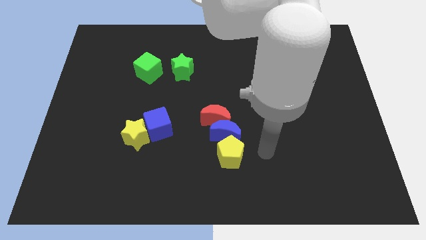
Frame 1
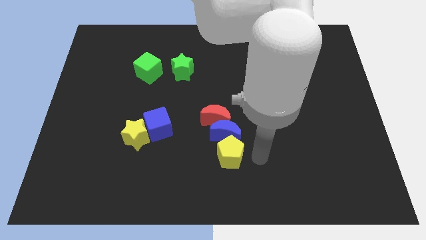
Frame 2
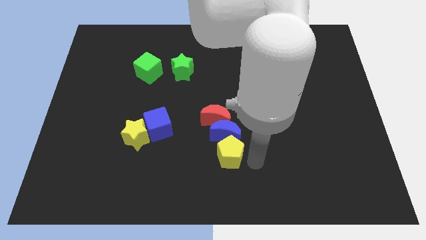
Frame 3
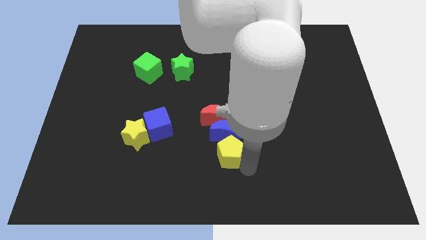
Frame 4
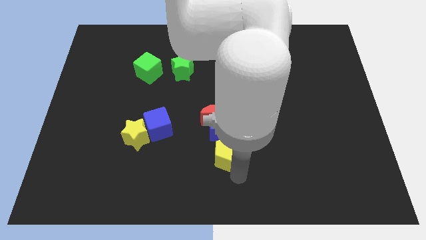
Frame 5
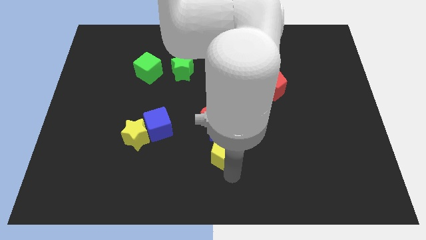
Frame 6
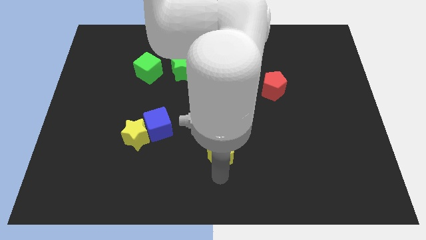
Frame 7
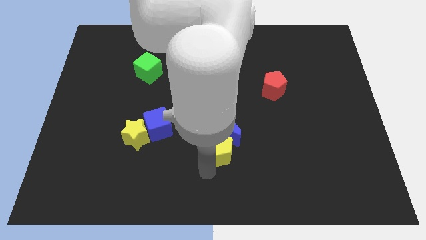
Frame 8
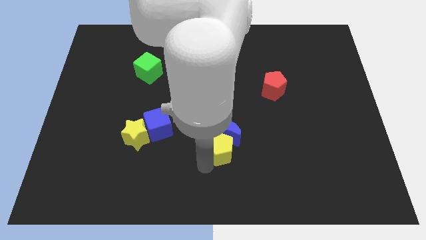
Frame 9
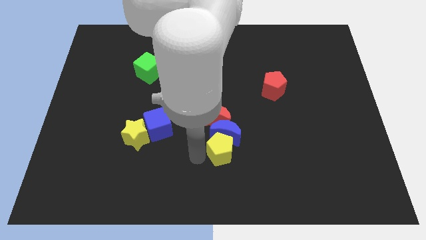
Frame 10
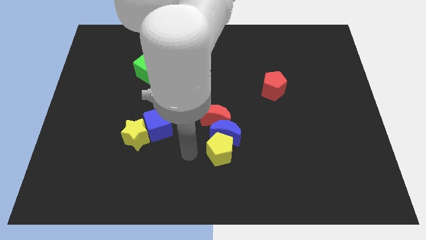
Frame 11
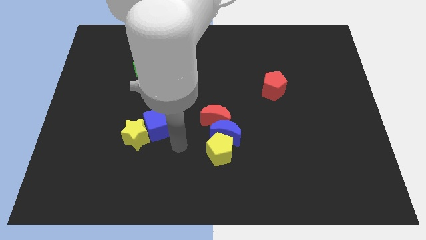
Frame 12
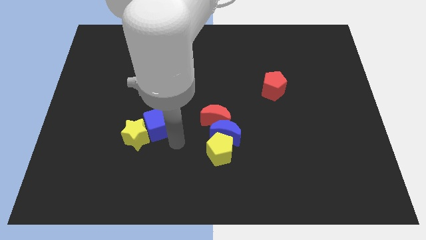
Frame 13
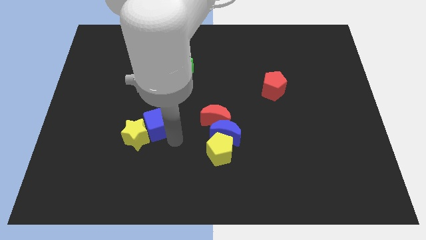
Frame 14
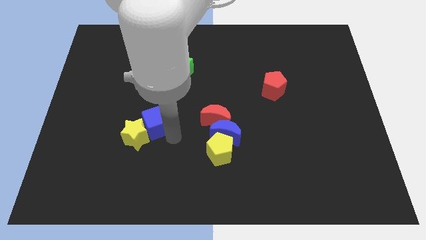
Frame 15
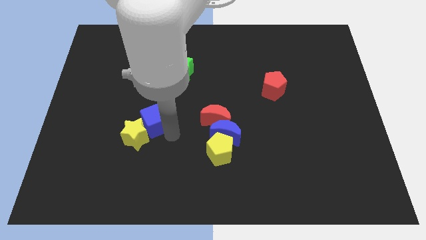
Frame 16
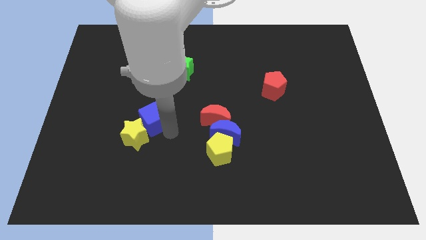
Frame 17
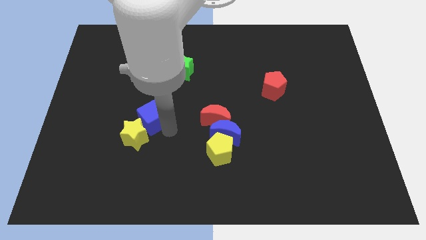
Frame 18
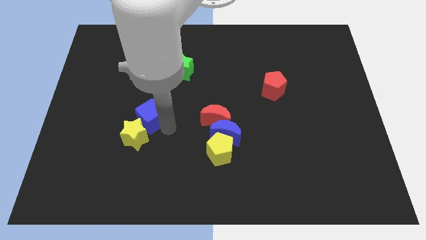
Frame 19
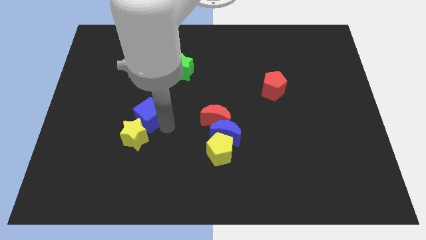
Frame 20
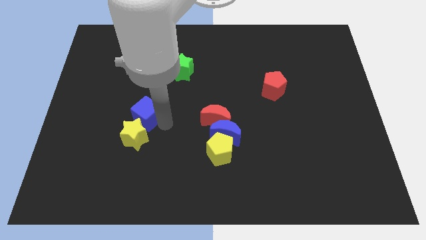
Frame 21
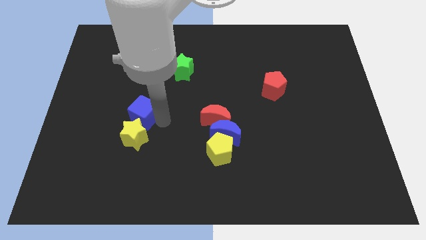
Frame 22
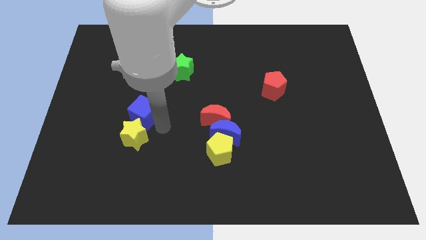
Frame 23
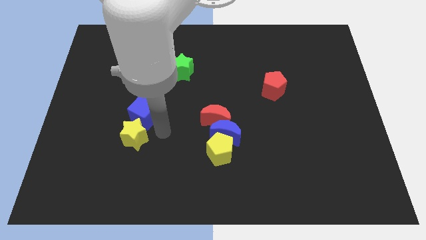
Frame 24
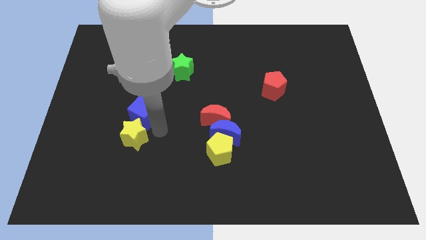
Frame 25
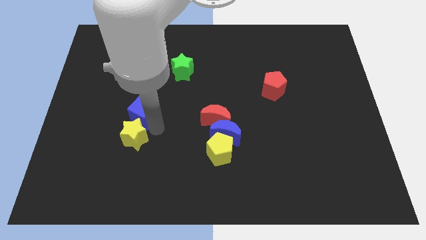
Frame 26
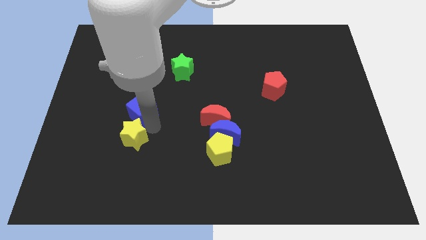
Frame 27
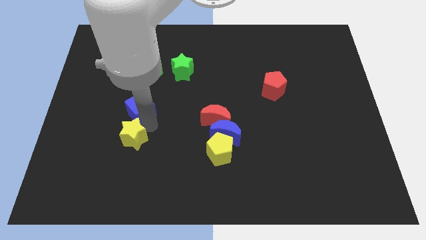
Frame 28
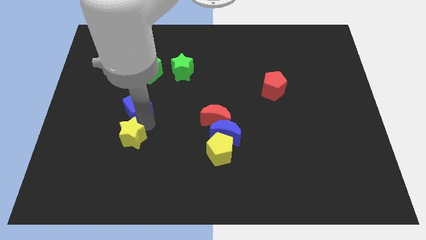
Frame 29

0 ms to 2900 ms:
slightly push the blue cube up and then to the left

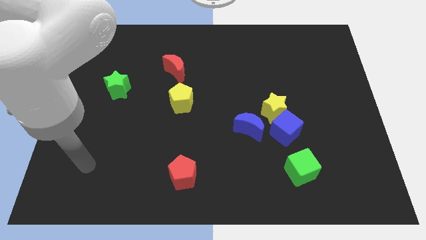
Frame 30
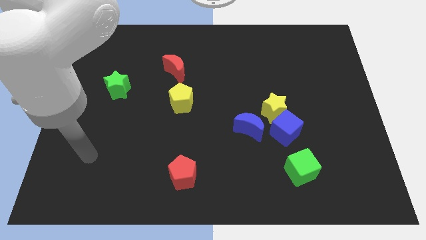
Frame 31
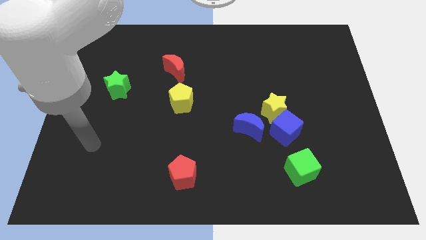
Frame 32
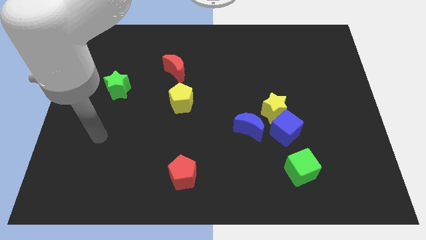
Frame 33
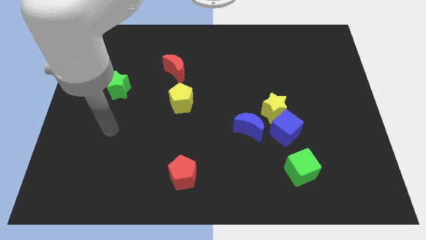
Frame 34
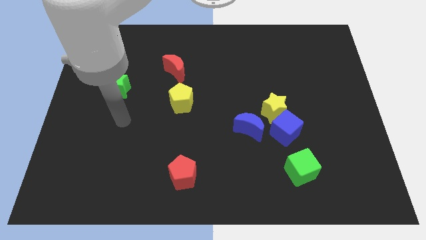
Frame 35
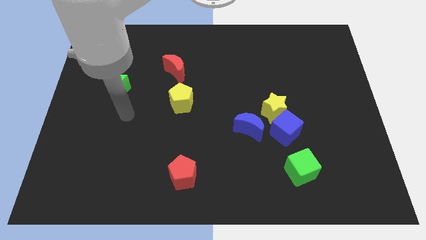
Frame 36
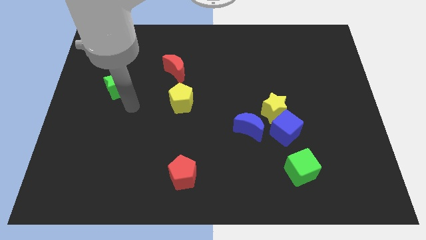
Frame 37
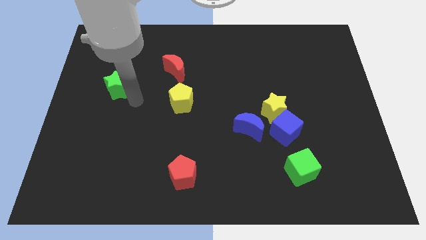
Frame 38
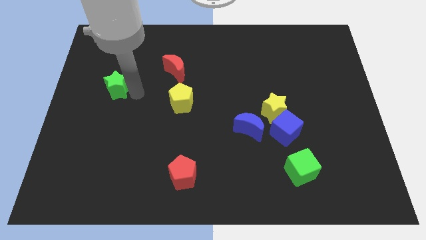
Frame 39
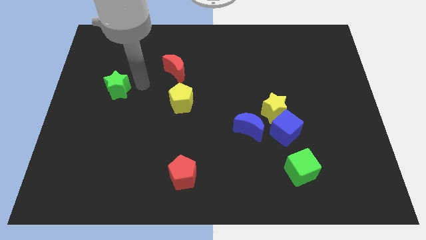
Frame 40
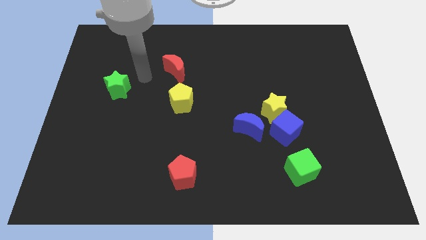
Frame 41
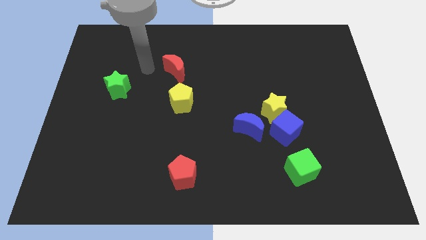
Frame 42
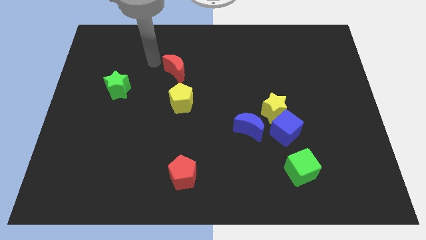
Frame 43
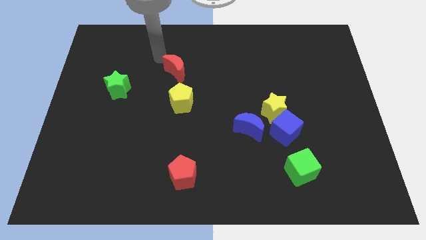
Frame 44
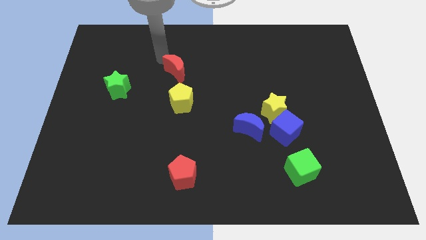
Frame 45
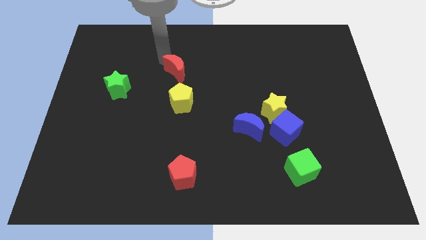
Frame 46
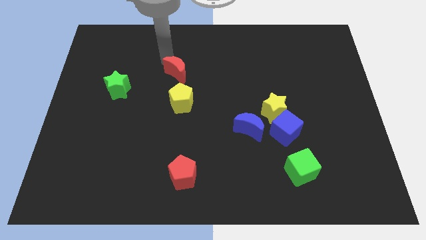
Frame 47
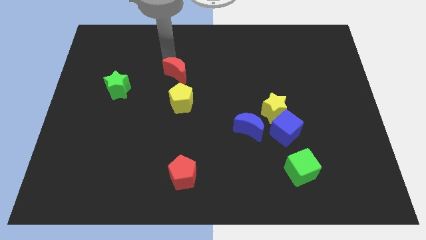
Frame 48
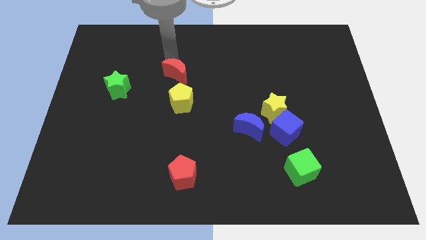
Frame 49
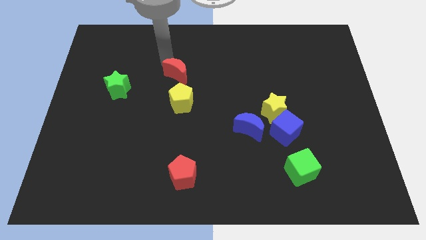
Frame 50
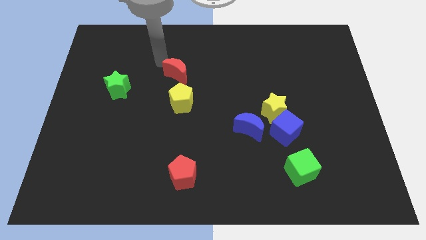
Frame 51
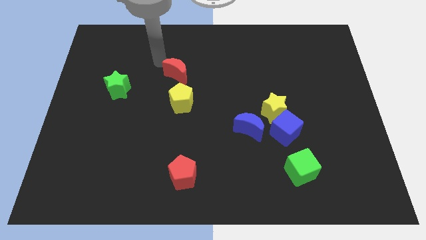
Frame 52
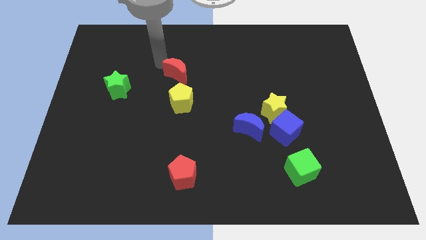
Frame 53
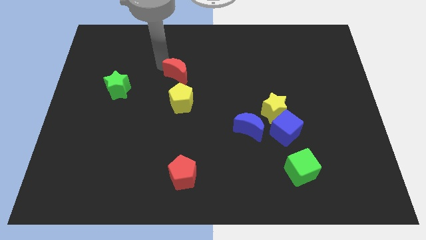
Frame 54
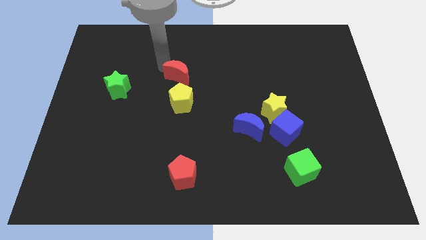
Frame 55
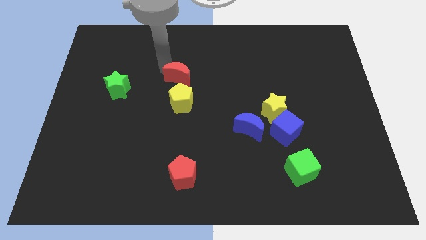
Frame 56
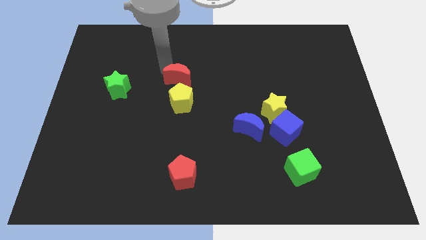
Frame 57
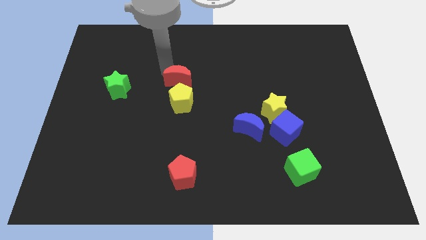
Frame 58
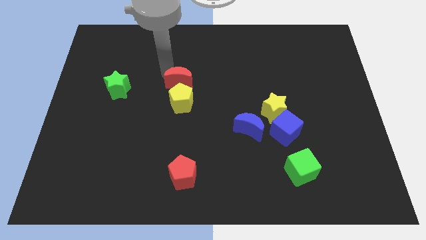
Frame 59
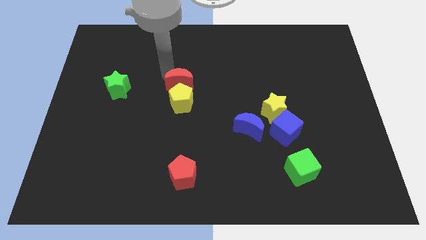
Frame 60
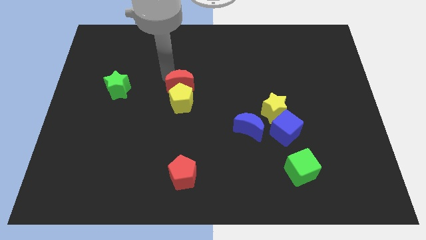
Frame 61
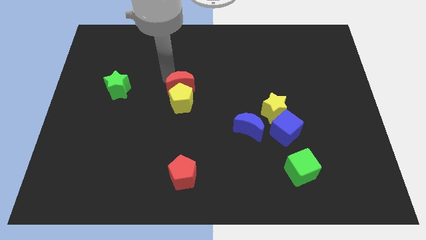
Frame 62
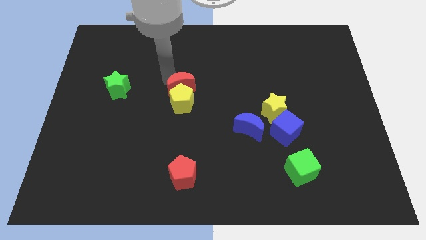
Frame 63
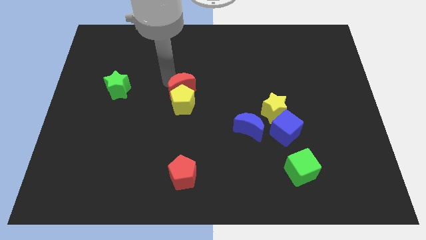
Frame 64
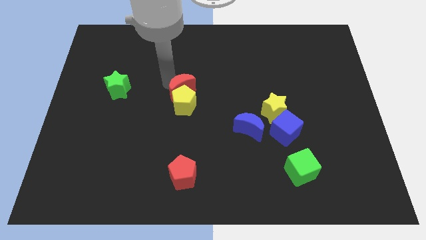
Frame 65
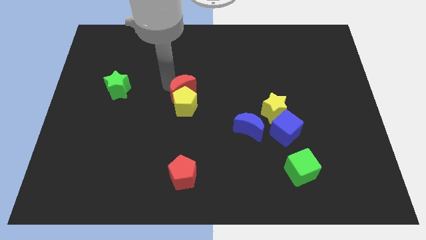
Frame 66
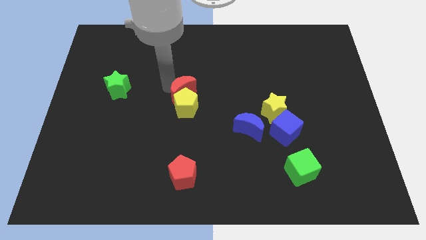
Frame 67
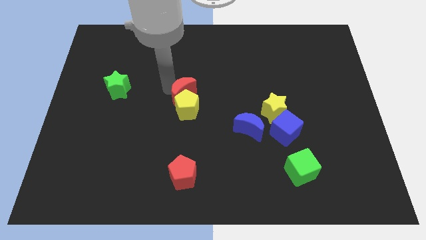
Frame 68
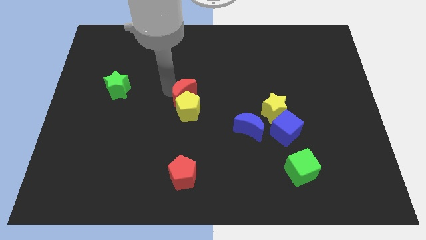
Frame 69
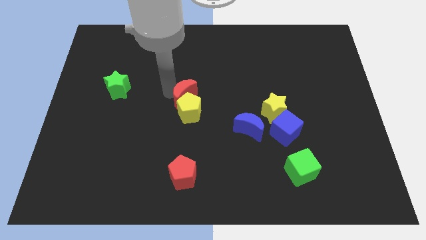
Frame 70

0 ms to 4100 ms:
slide the red moon down and then right a little

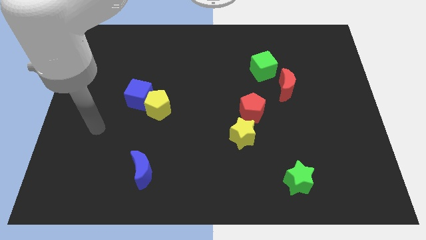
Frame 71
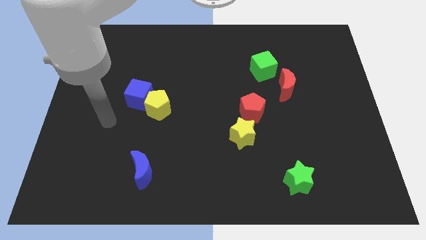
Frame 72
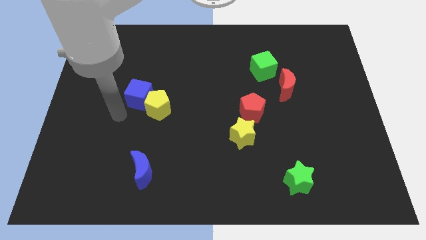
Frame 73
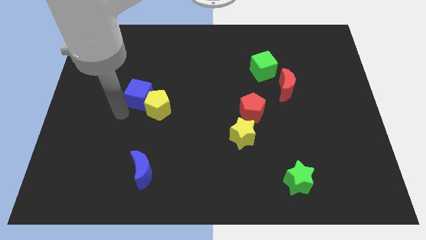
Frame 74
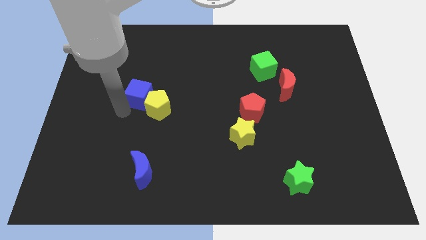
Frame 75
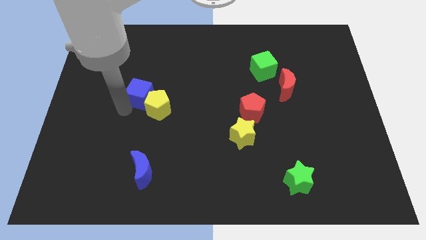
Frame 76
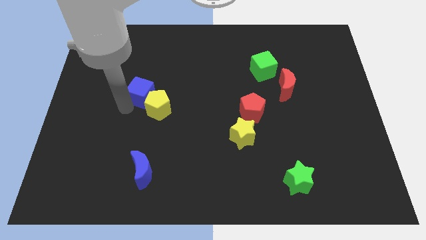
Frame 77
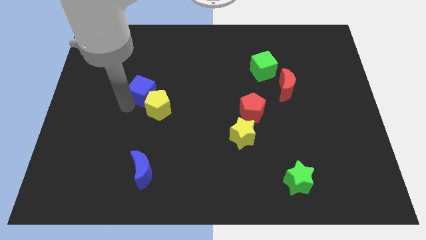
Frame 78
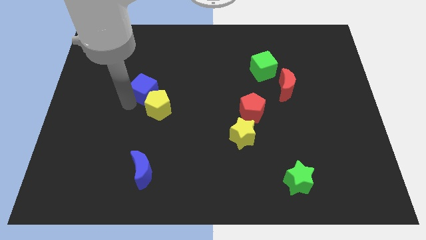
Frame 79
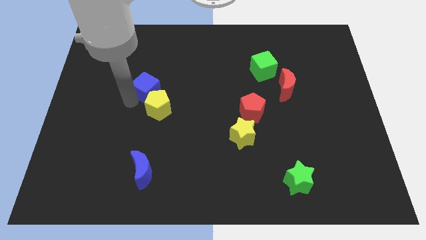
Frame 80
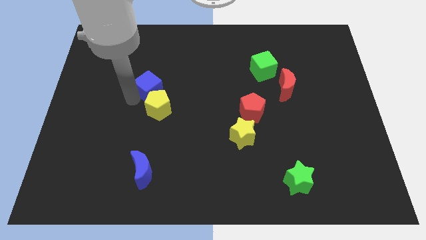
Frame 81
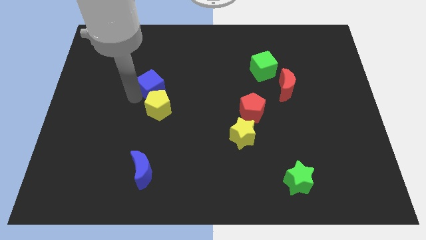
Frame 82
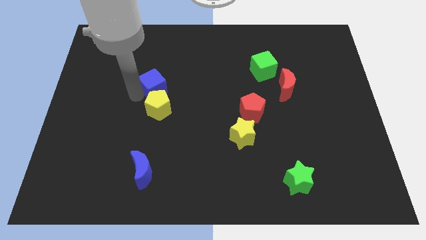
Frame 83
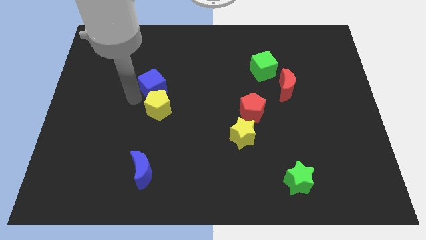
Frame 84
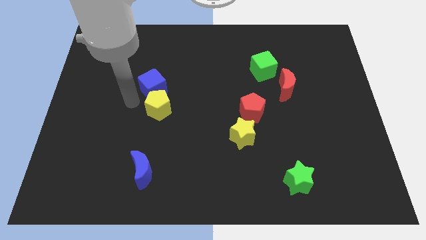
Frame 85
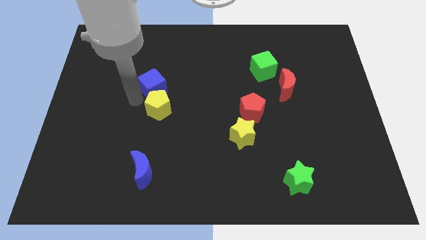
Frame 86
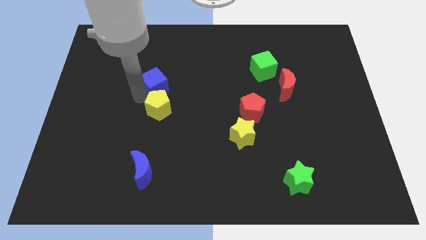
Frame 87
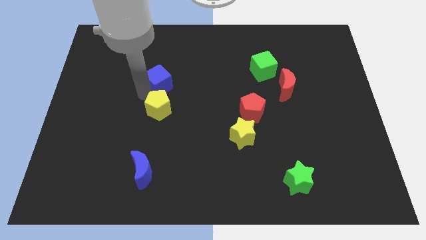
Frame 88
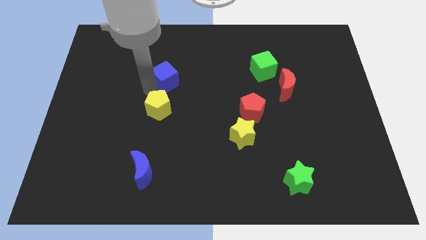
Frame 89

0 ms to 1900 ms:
push the blue cube somewhat up and to the right
